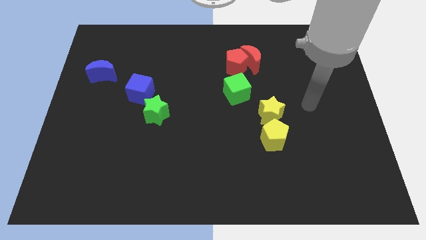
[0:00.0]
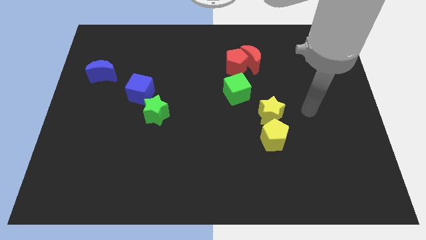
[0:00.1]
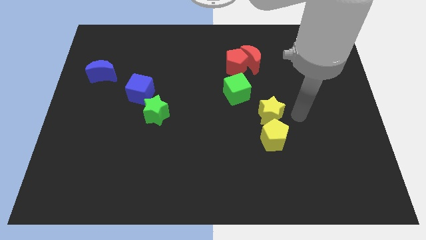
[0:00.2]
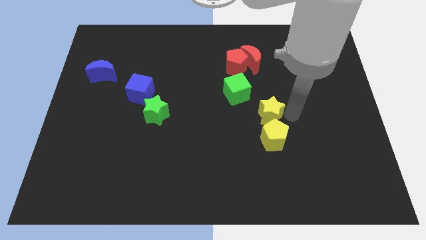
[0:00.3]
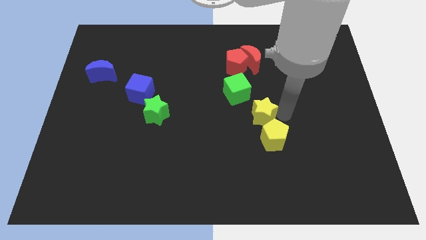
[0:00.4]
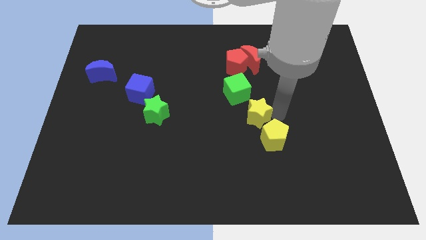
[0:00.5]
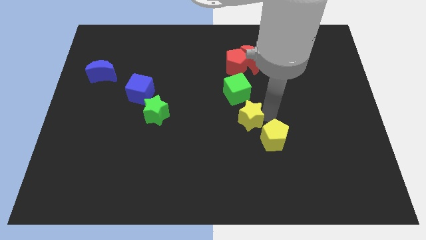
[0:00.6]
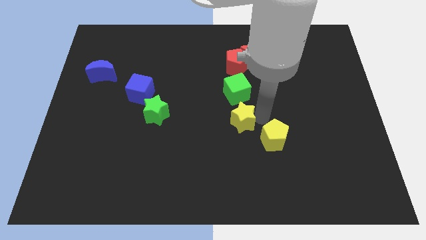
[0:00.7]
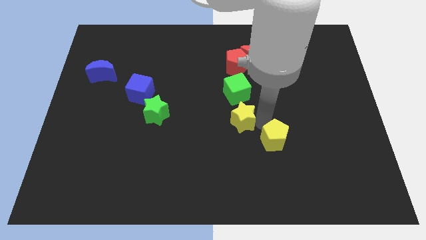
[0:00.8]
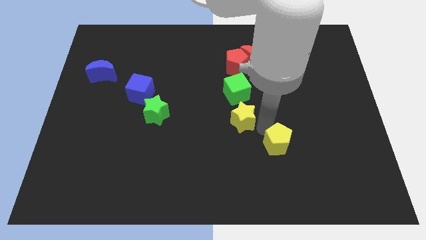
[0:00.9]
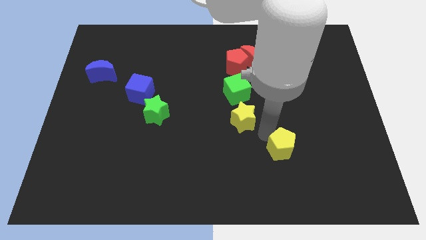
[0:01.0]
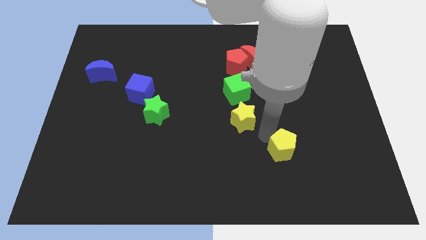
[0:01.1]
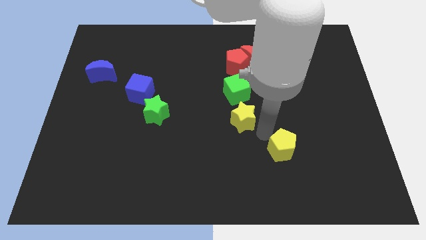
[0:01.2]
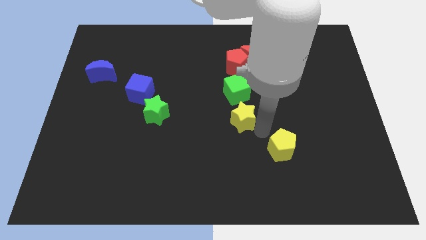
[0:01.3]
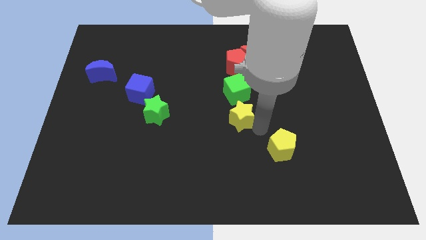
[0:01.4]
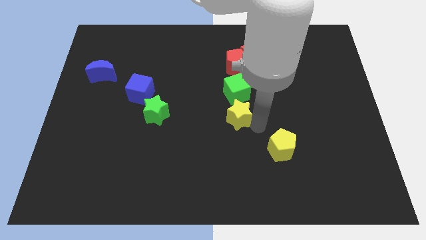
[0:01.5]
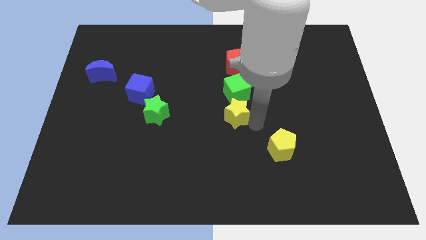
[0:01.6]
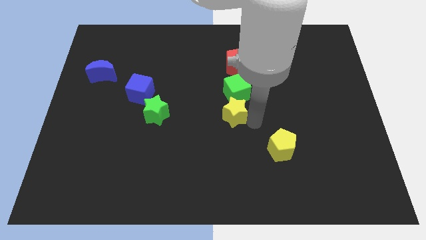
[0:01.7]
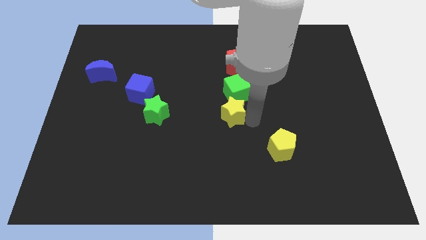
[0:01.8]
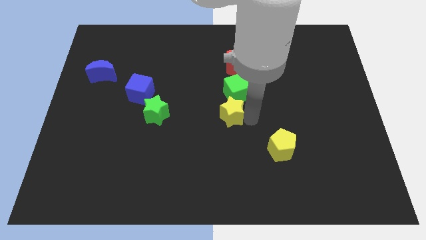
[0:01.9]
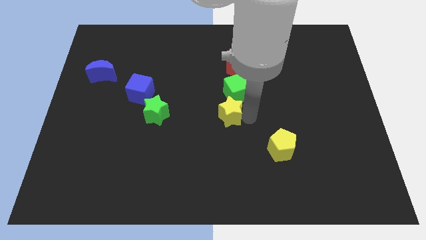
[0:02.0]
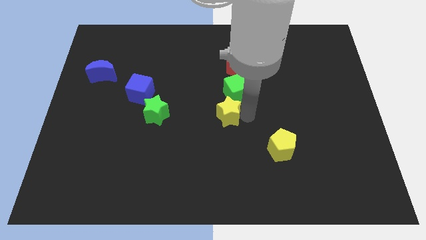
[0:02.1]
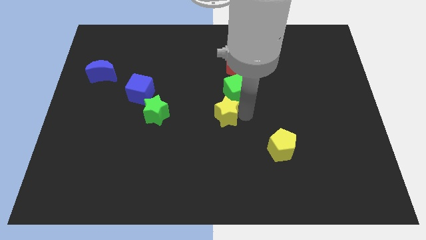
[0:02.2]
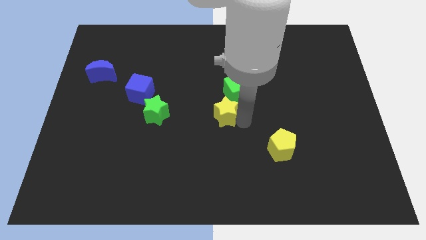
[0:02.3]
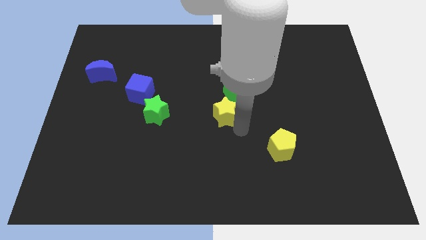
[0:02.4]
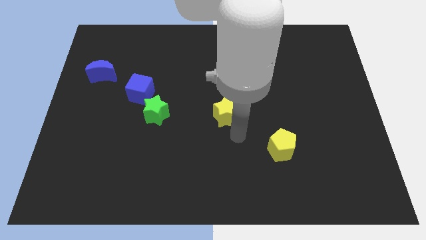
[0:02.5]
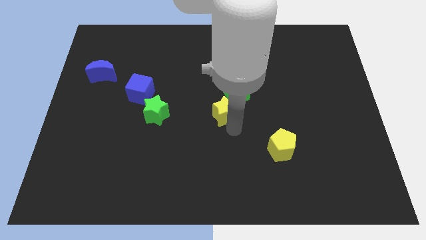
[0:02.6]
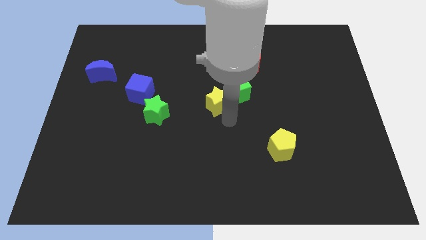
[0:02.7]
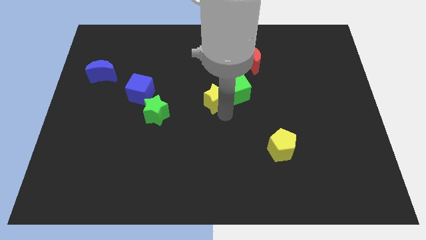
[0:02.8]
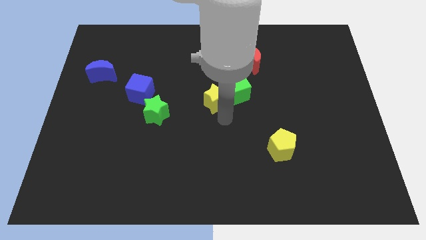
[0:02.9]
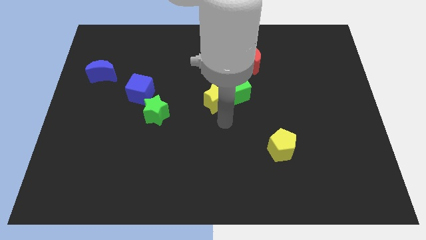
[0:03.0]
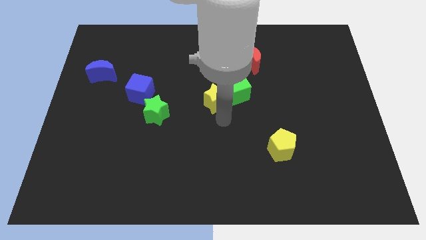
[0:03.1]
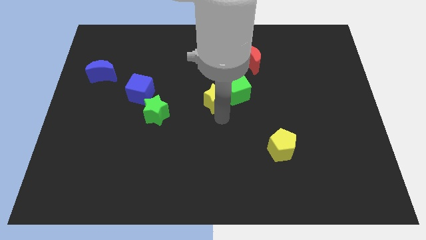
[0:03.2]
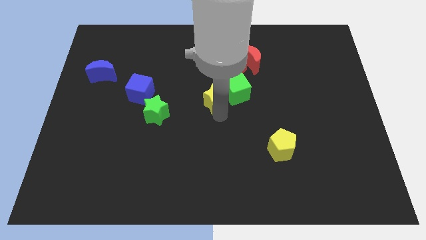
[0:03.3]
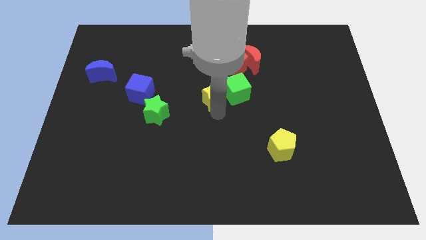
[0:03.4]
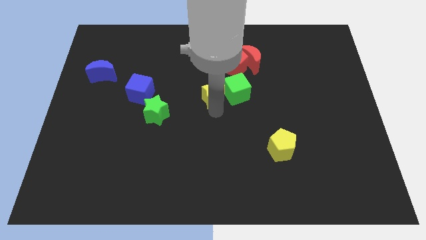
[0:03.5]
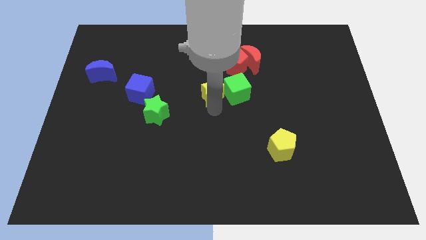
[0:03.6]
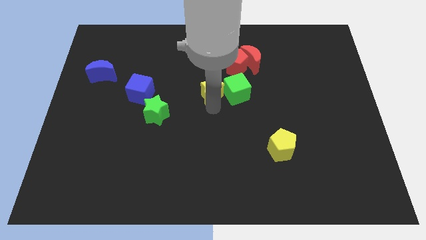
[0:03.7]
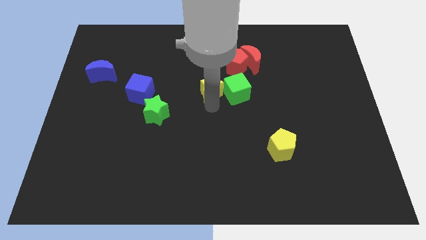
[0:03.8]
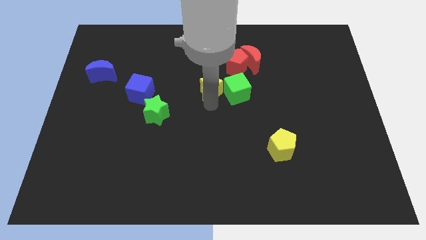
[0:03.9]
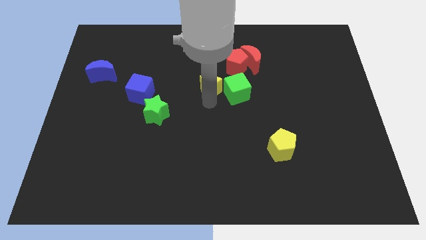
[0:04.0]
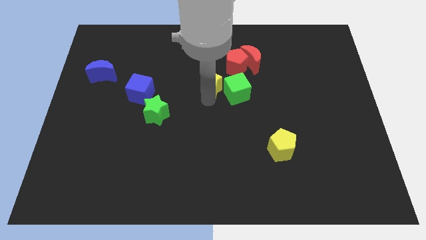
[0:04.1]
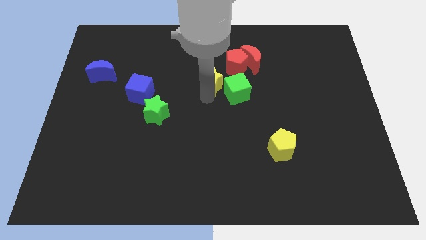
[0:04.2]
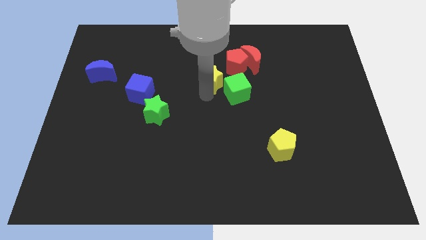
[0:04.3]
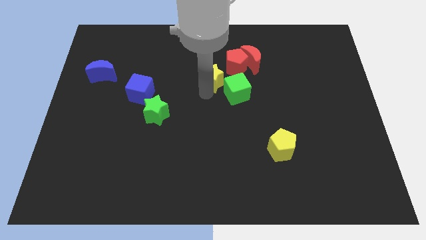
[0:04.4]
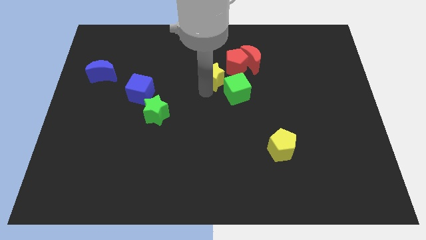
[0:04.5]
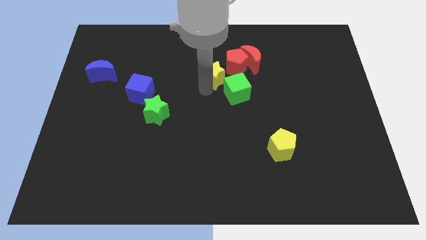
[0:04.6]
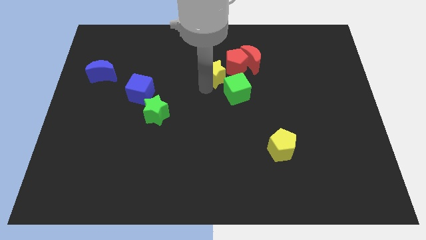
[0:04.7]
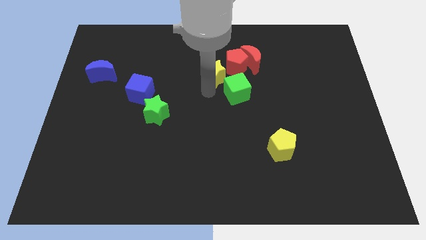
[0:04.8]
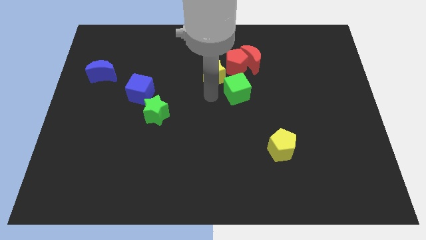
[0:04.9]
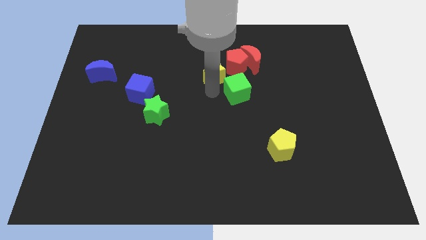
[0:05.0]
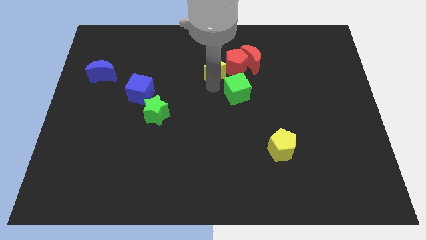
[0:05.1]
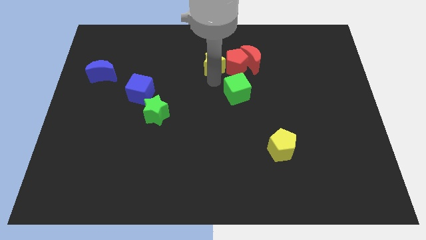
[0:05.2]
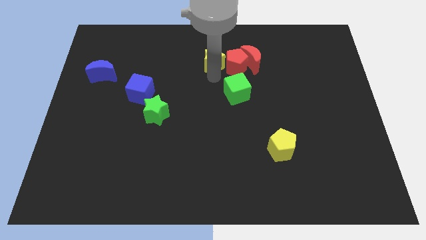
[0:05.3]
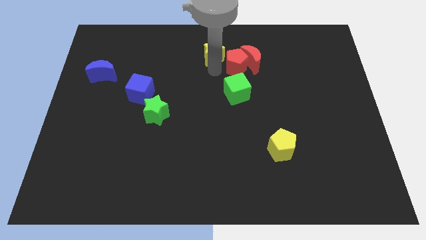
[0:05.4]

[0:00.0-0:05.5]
slide the yellow star to the top

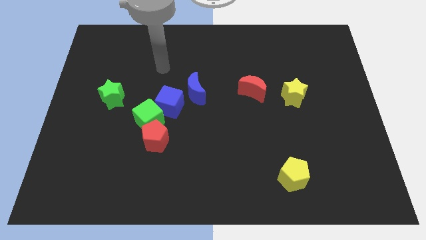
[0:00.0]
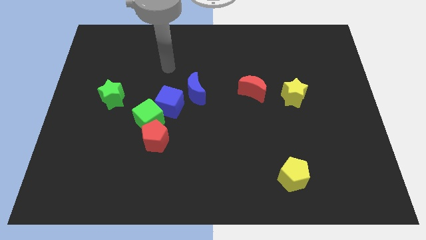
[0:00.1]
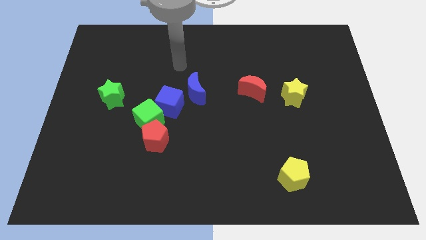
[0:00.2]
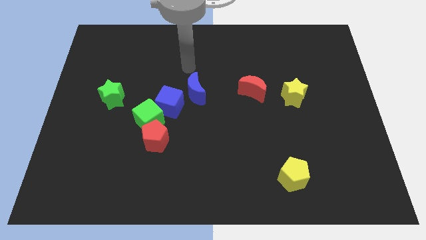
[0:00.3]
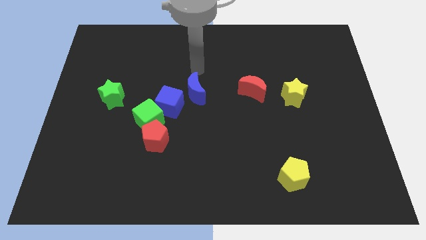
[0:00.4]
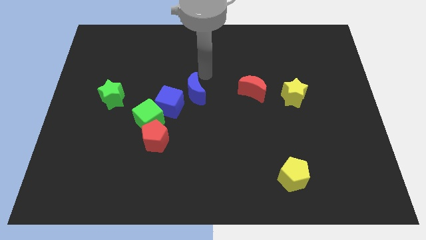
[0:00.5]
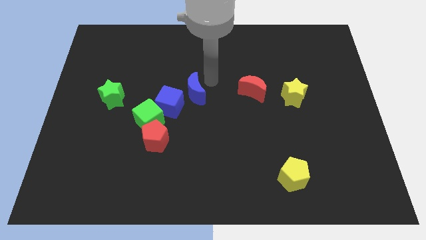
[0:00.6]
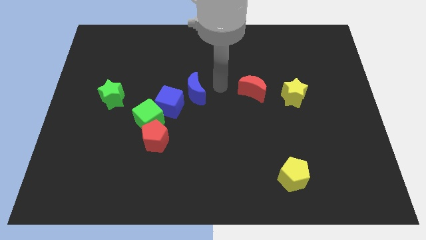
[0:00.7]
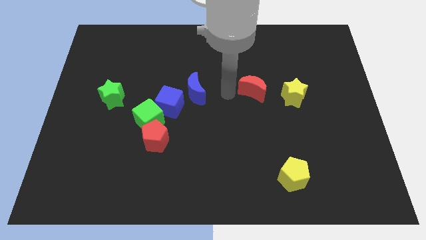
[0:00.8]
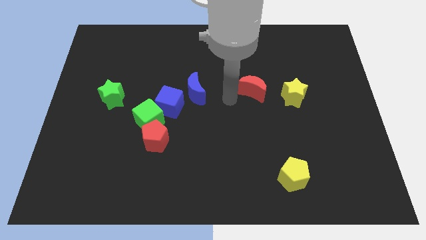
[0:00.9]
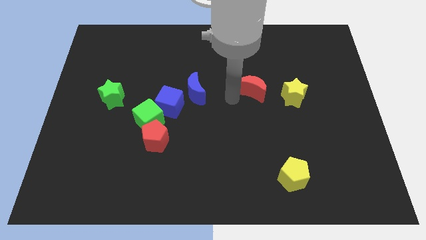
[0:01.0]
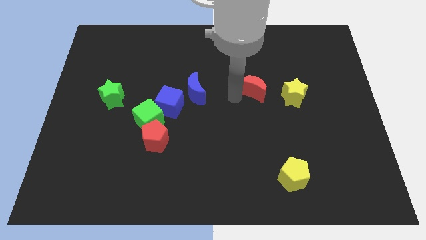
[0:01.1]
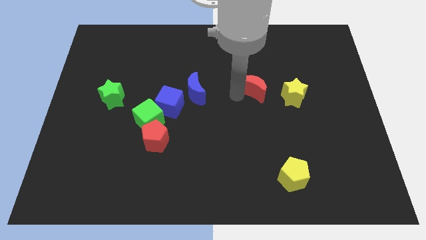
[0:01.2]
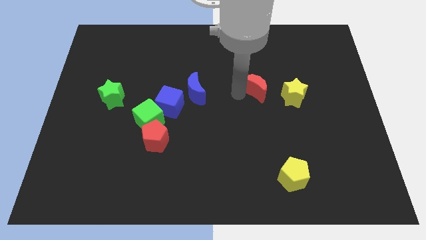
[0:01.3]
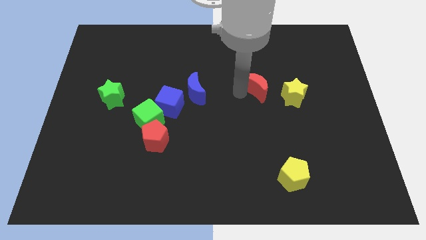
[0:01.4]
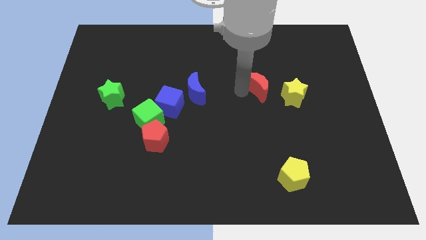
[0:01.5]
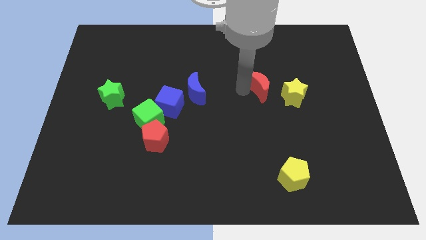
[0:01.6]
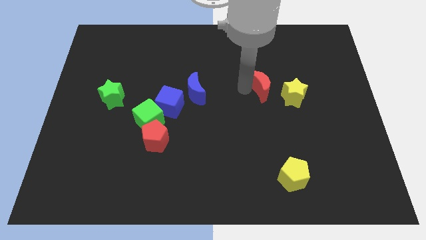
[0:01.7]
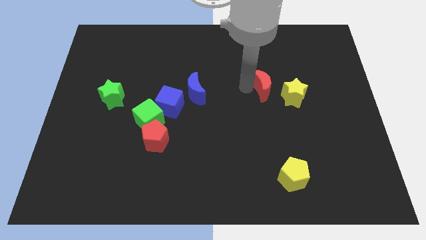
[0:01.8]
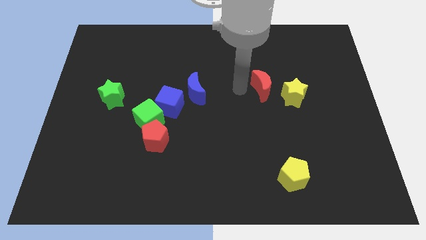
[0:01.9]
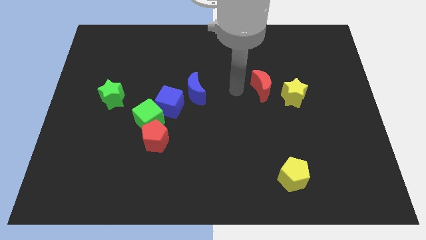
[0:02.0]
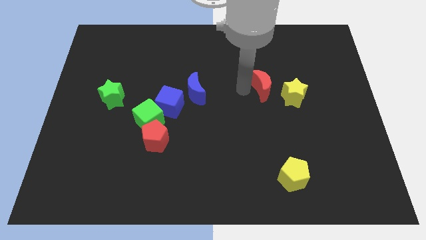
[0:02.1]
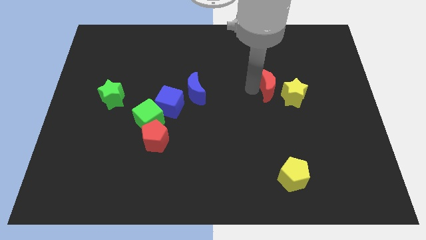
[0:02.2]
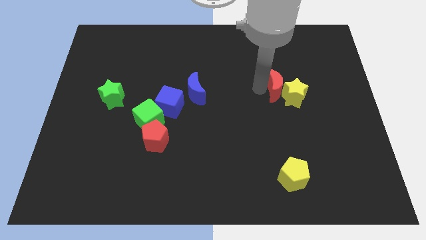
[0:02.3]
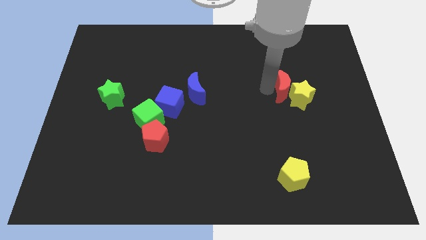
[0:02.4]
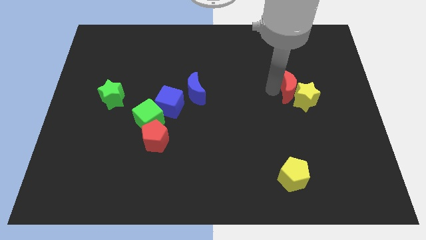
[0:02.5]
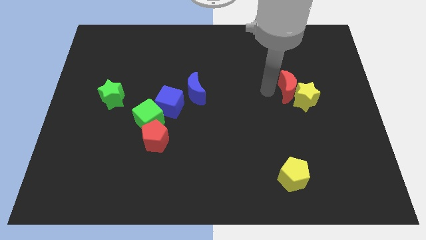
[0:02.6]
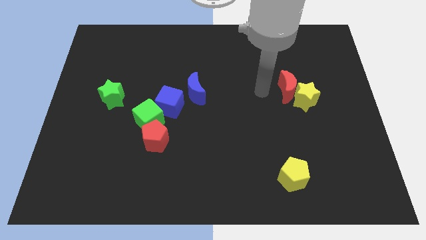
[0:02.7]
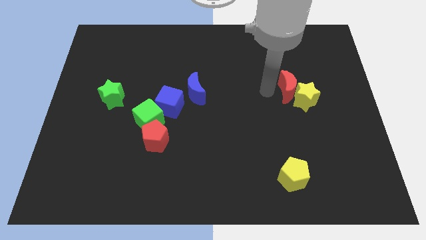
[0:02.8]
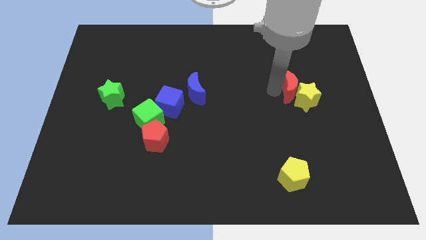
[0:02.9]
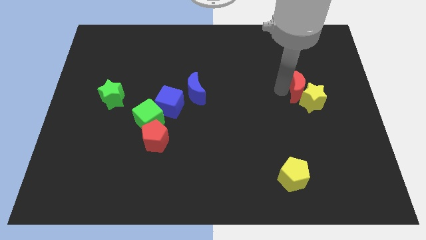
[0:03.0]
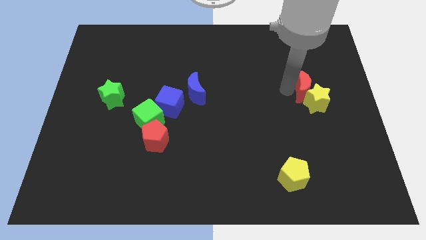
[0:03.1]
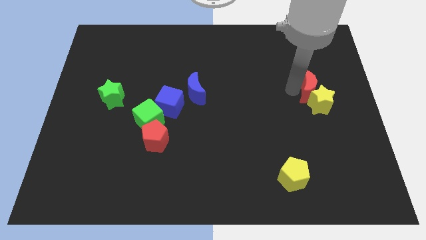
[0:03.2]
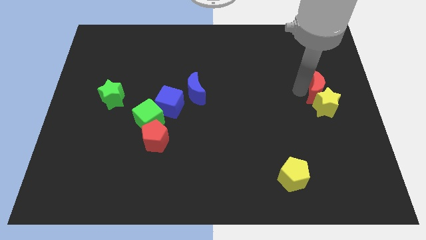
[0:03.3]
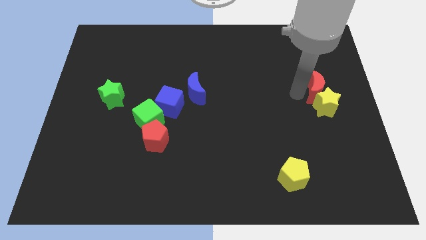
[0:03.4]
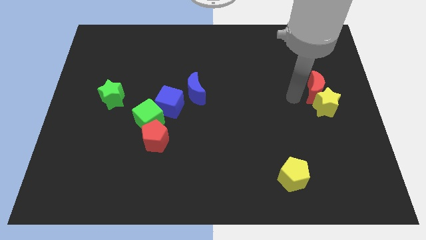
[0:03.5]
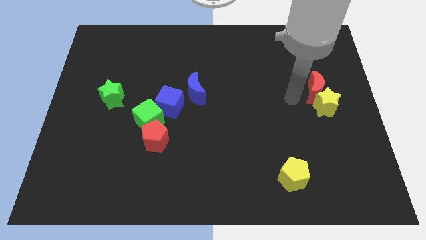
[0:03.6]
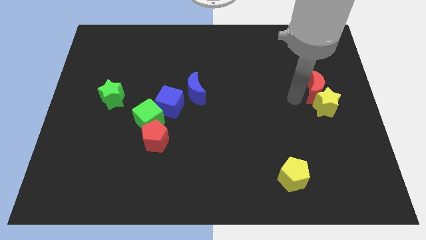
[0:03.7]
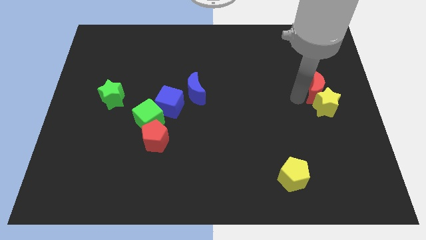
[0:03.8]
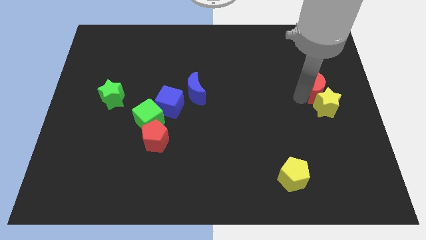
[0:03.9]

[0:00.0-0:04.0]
move the red moon to the center right
